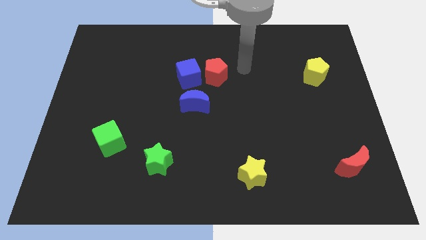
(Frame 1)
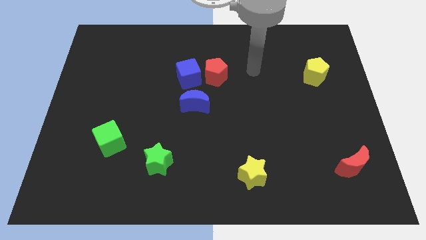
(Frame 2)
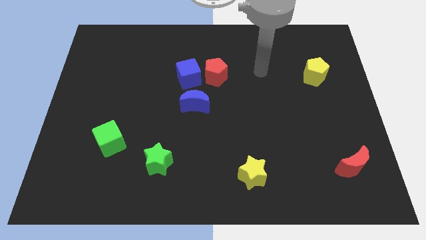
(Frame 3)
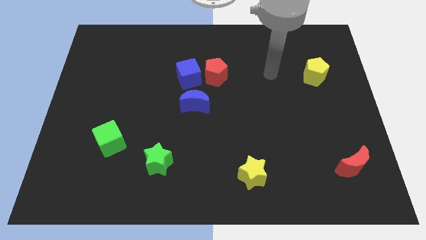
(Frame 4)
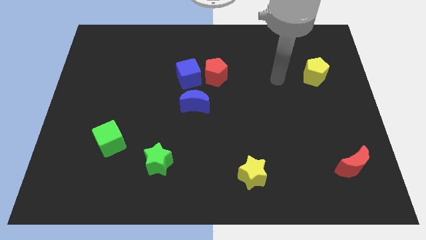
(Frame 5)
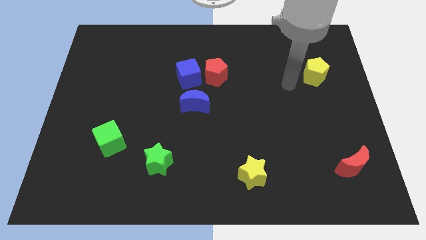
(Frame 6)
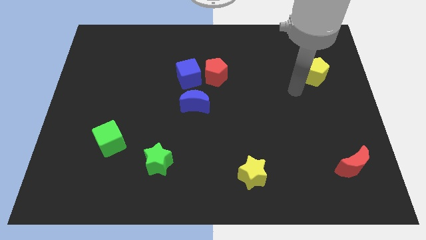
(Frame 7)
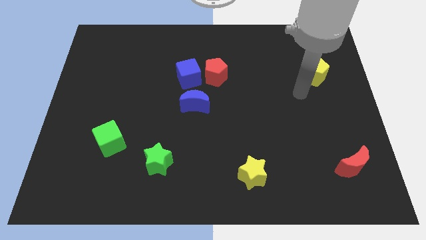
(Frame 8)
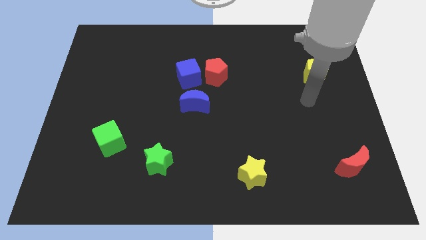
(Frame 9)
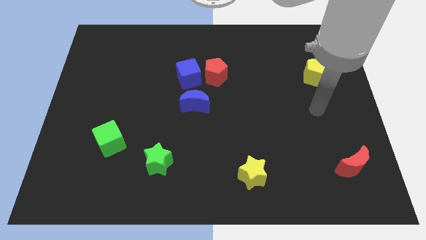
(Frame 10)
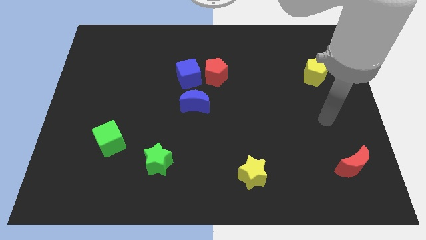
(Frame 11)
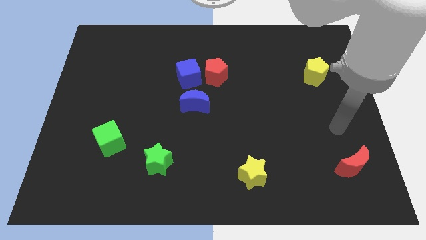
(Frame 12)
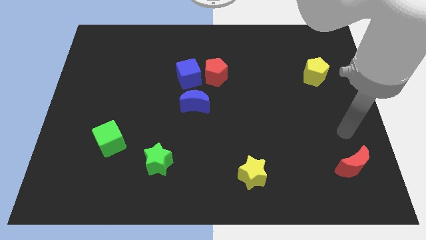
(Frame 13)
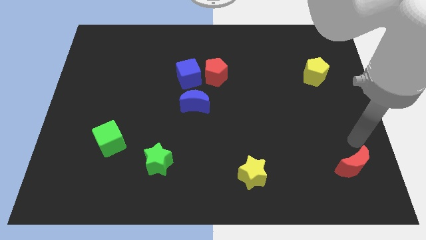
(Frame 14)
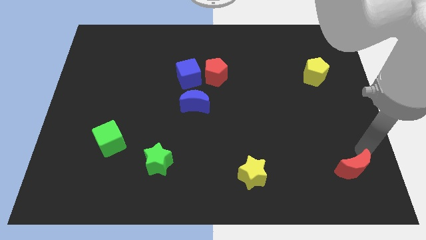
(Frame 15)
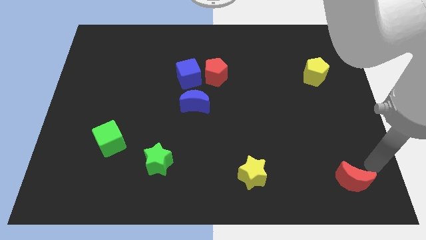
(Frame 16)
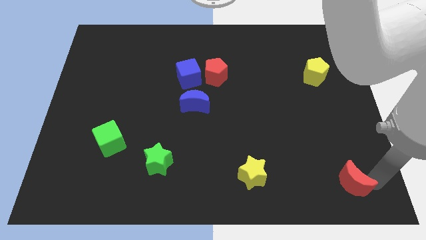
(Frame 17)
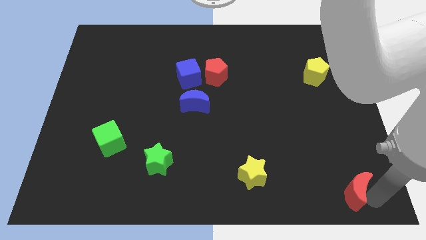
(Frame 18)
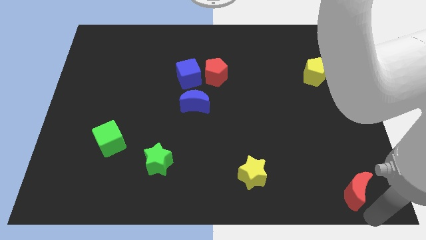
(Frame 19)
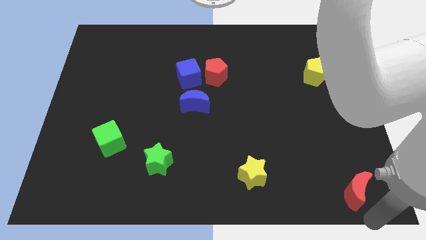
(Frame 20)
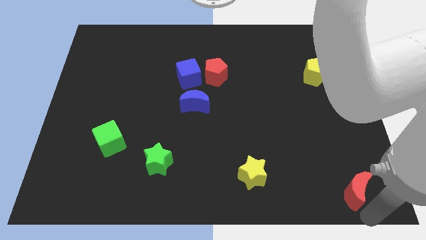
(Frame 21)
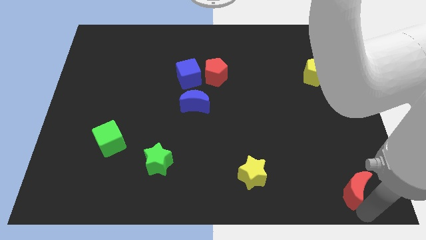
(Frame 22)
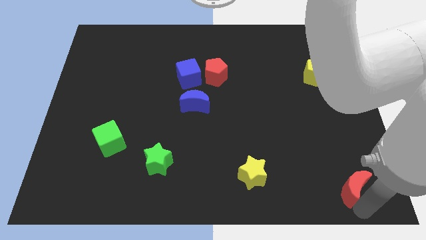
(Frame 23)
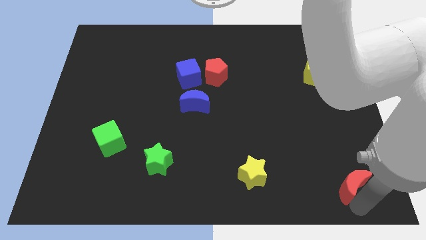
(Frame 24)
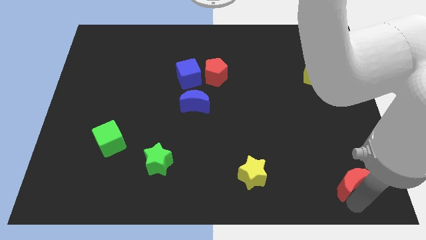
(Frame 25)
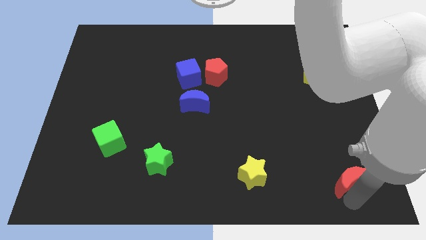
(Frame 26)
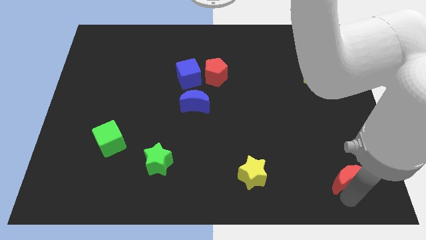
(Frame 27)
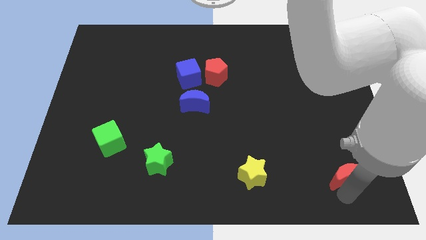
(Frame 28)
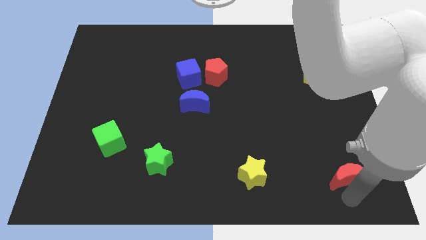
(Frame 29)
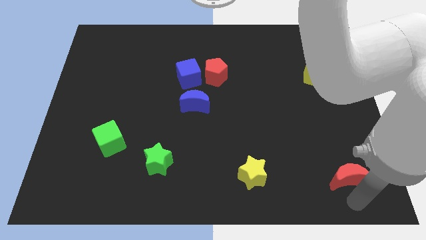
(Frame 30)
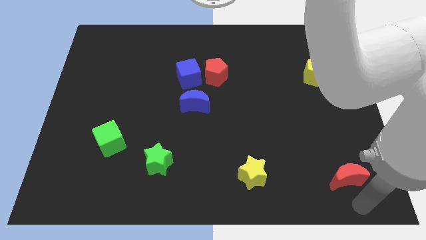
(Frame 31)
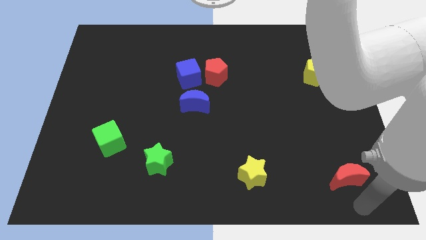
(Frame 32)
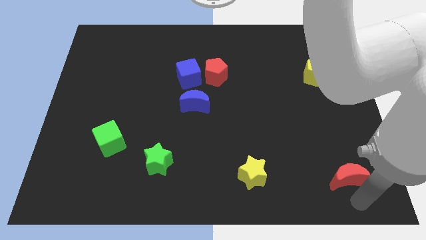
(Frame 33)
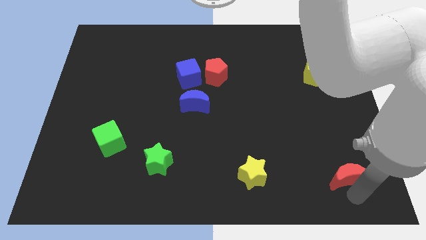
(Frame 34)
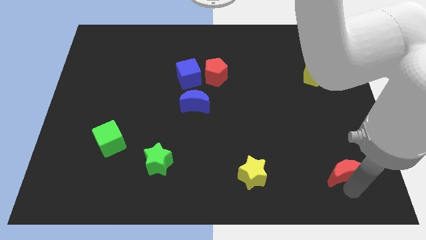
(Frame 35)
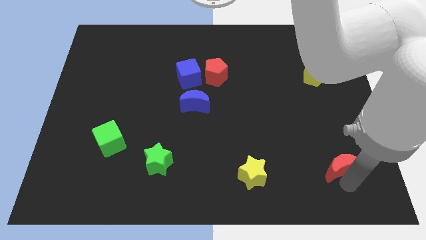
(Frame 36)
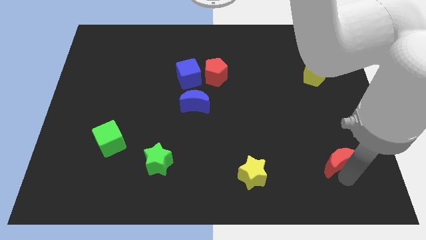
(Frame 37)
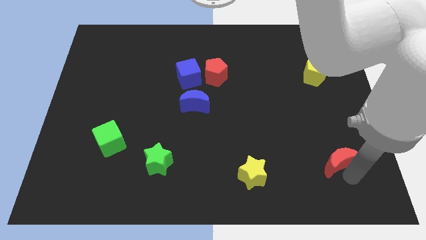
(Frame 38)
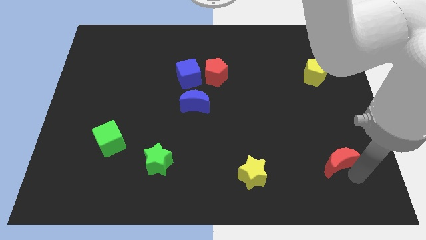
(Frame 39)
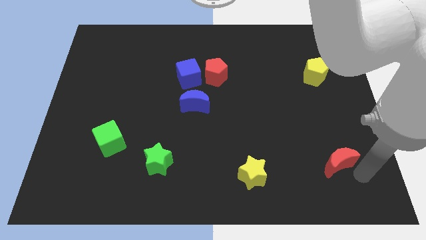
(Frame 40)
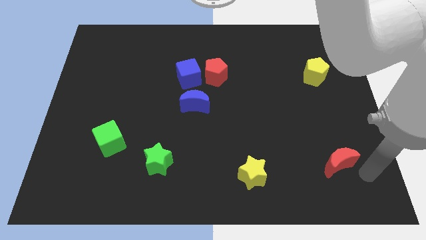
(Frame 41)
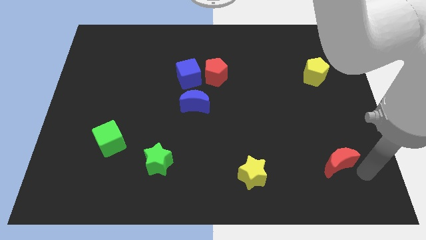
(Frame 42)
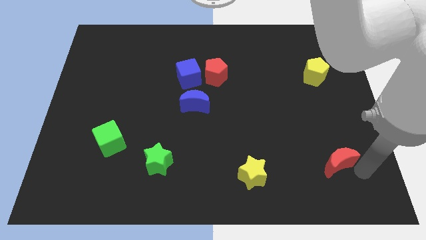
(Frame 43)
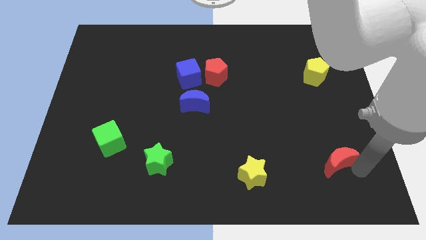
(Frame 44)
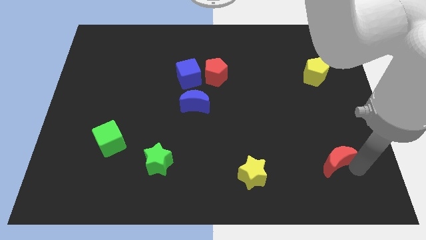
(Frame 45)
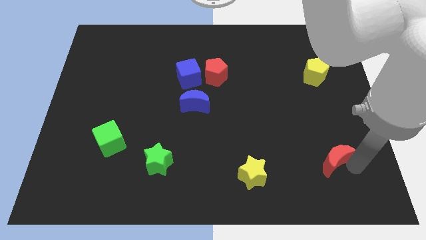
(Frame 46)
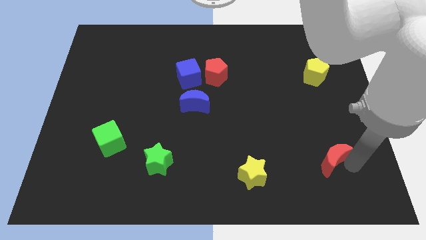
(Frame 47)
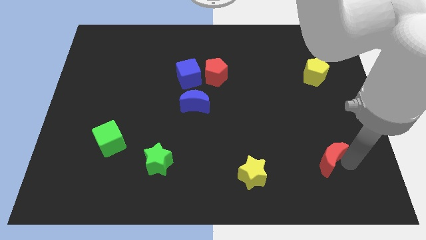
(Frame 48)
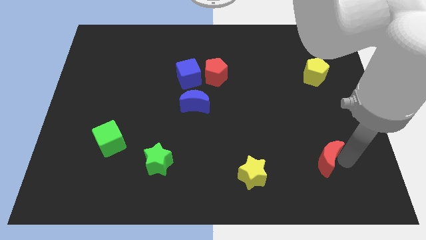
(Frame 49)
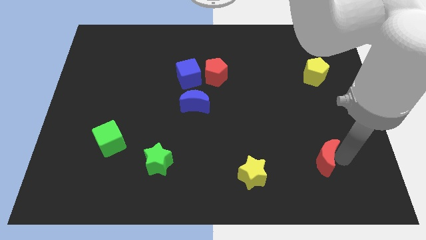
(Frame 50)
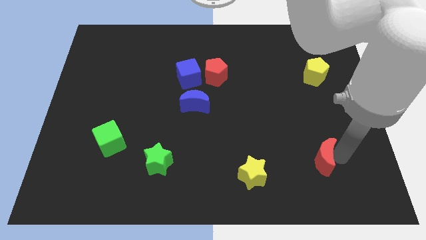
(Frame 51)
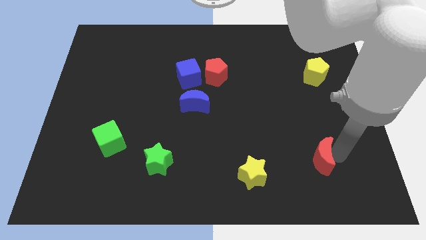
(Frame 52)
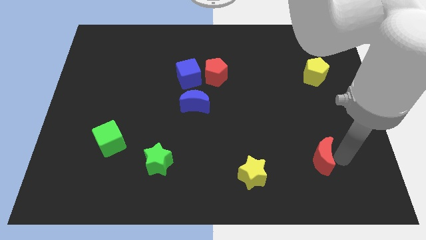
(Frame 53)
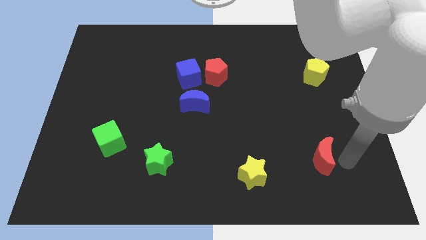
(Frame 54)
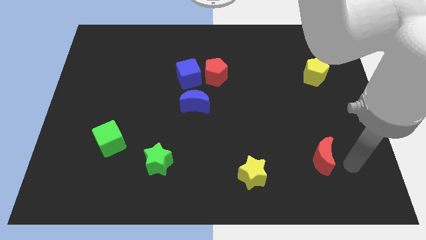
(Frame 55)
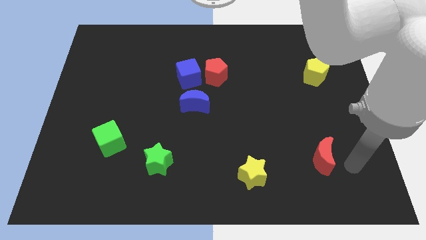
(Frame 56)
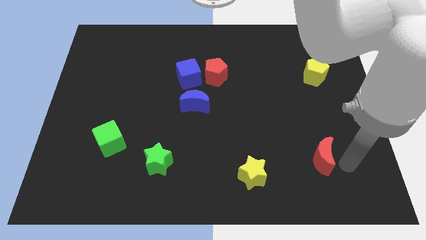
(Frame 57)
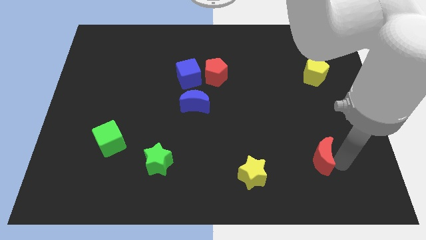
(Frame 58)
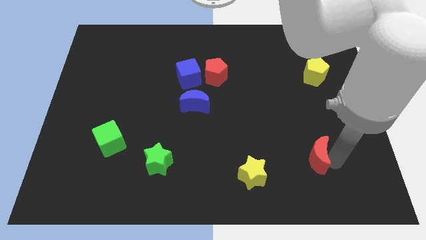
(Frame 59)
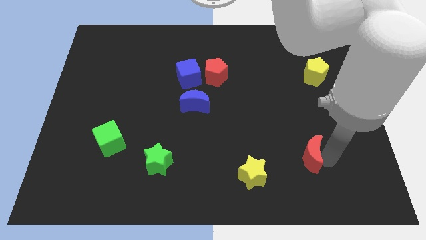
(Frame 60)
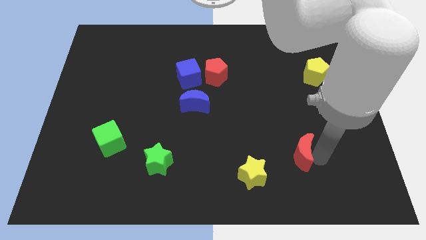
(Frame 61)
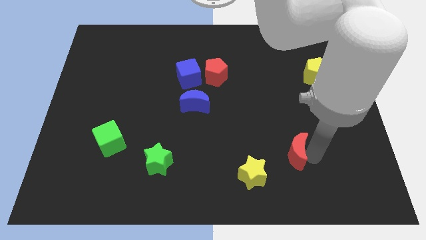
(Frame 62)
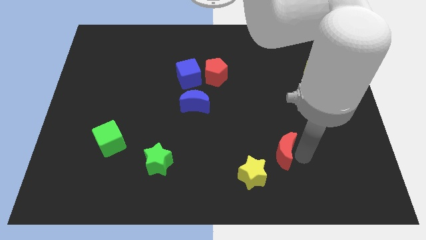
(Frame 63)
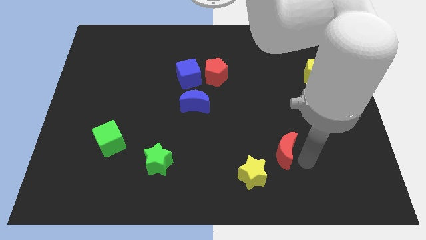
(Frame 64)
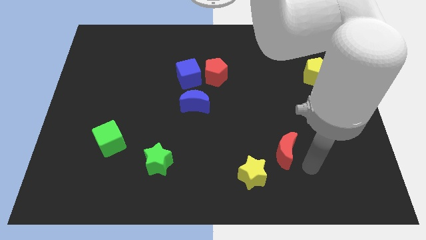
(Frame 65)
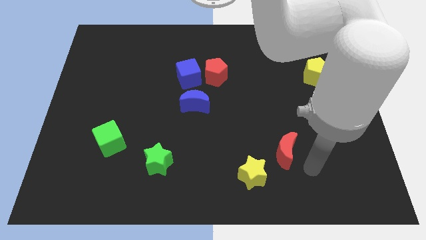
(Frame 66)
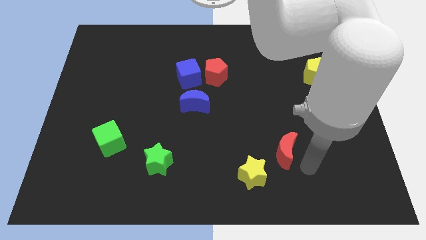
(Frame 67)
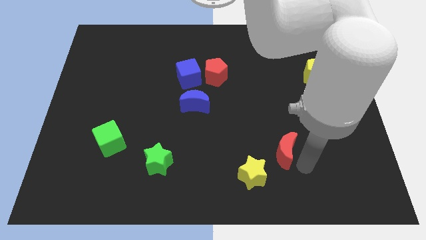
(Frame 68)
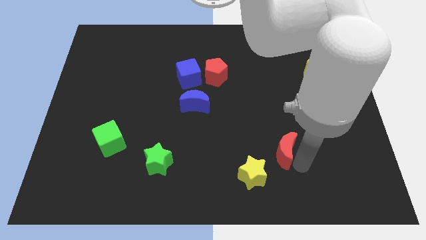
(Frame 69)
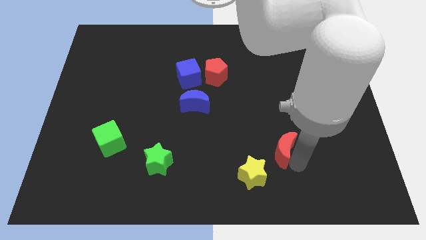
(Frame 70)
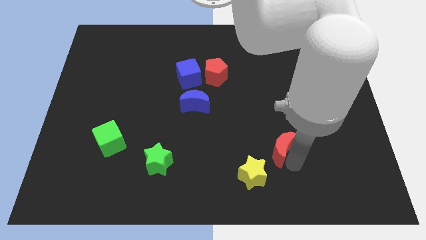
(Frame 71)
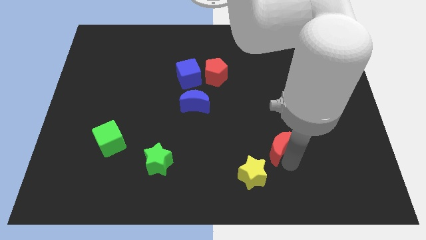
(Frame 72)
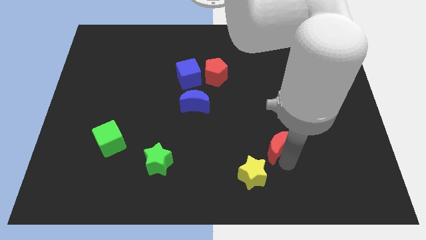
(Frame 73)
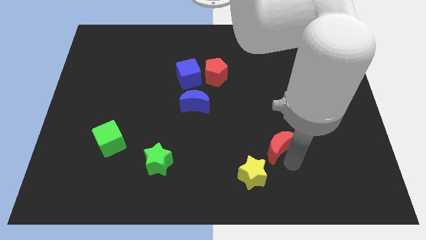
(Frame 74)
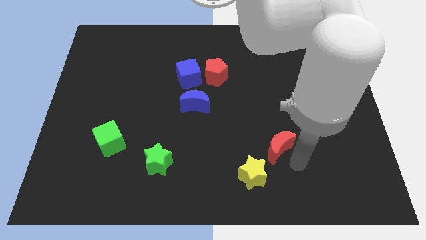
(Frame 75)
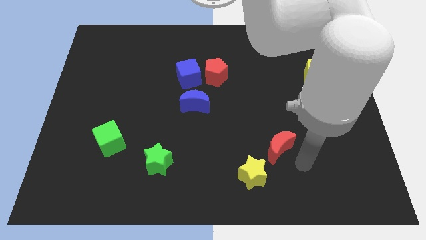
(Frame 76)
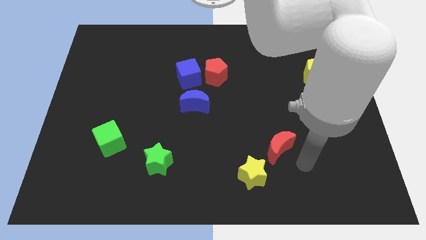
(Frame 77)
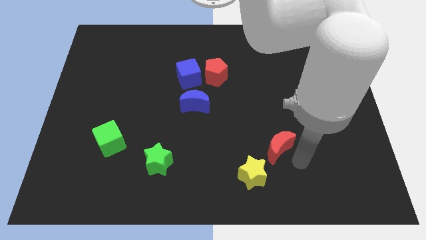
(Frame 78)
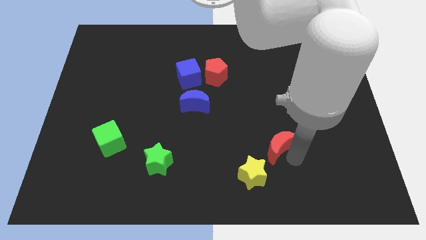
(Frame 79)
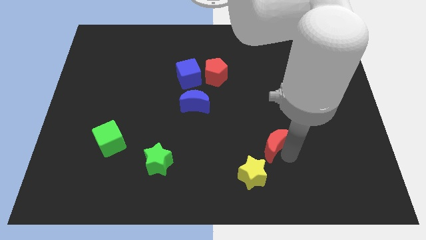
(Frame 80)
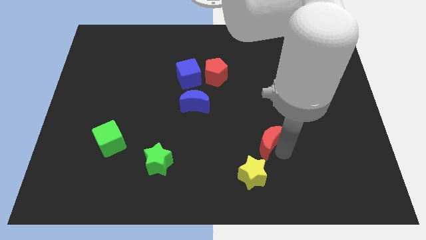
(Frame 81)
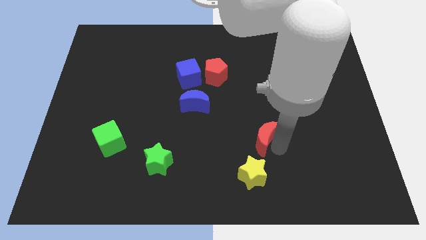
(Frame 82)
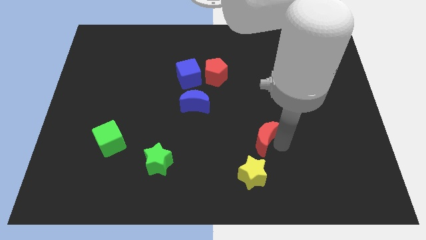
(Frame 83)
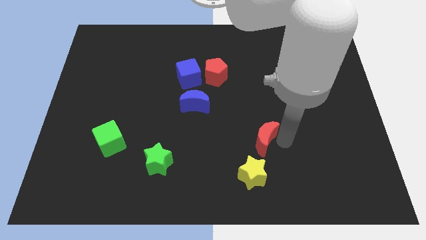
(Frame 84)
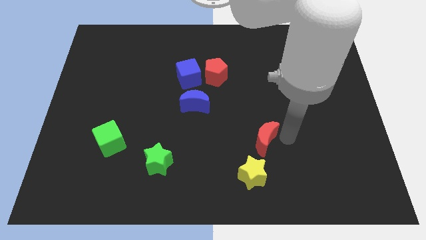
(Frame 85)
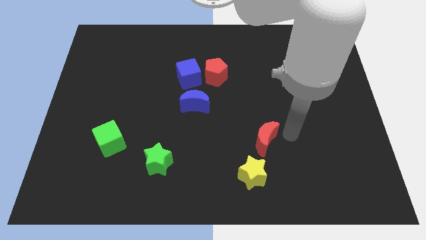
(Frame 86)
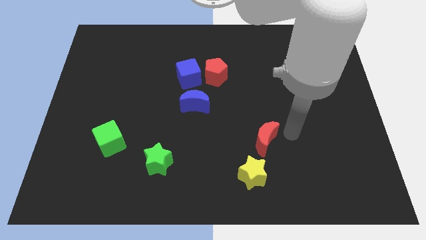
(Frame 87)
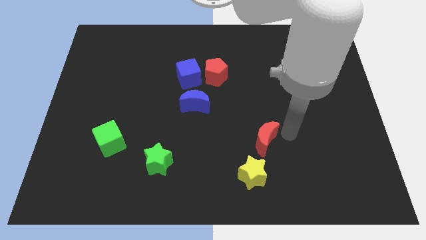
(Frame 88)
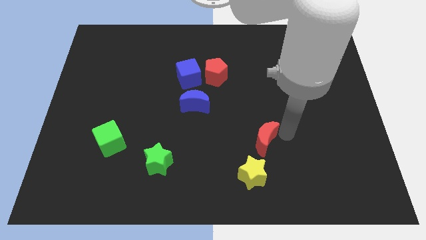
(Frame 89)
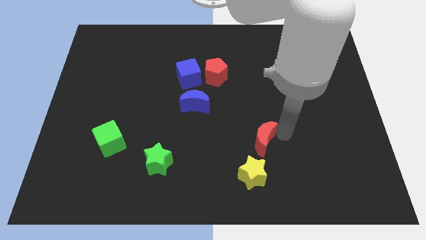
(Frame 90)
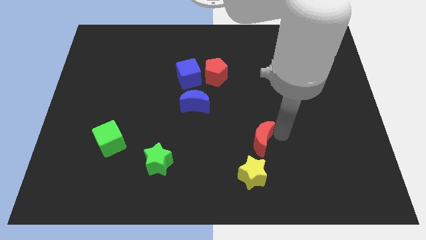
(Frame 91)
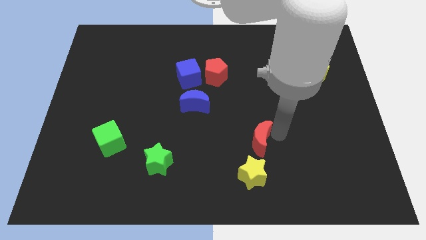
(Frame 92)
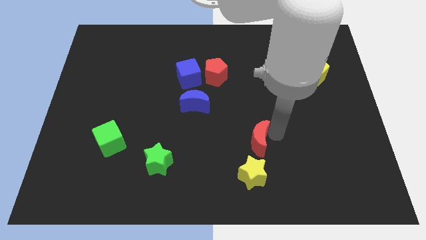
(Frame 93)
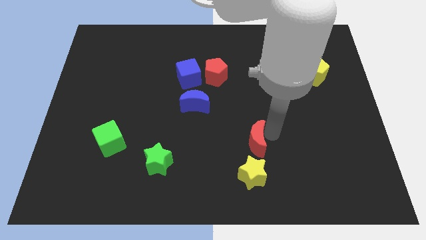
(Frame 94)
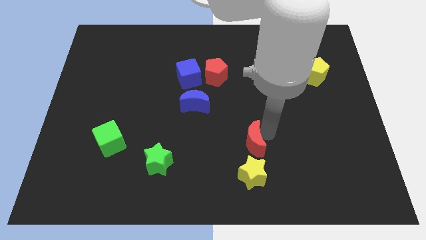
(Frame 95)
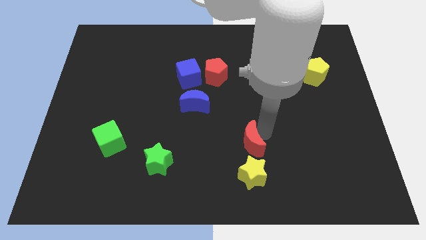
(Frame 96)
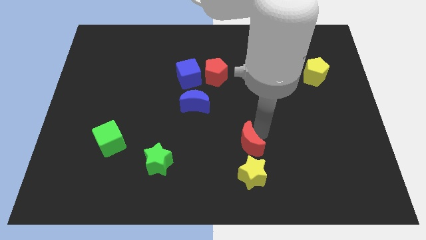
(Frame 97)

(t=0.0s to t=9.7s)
slide the red moon to the left
